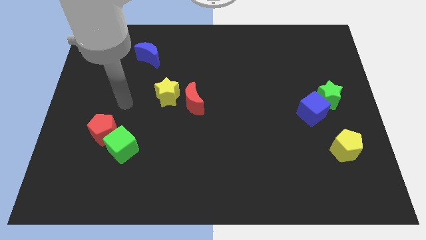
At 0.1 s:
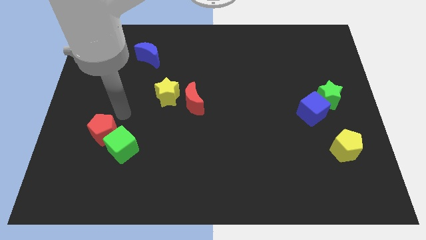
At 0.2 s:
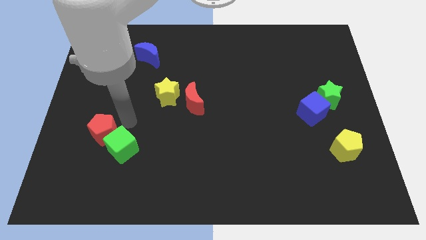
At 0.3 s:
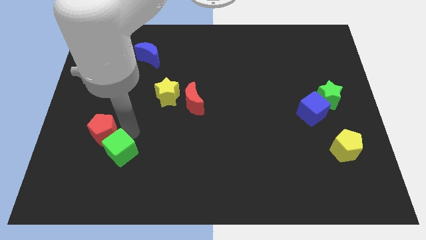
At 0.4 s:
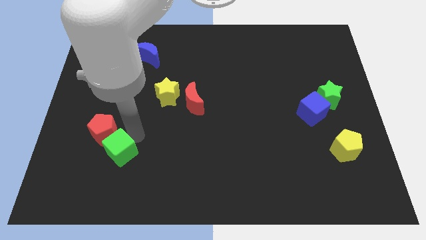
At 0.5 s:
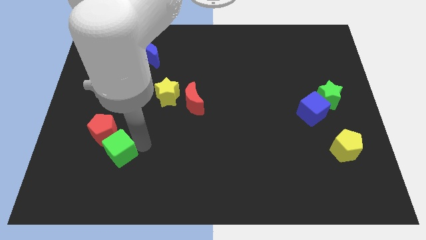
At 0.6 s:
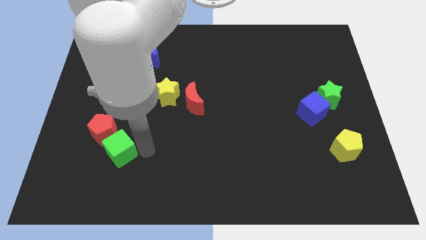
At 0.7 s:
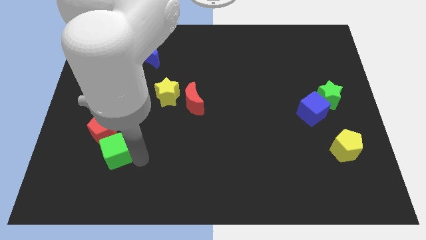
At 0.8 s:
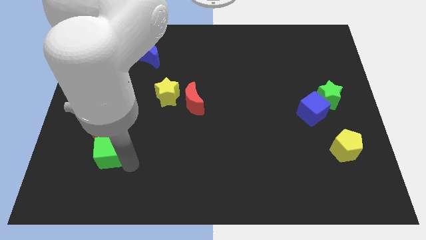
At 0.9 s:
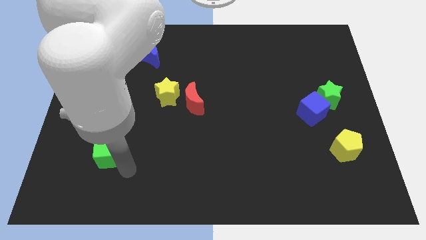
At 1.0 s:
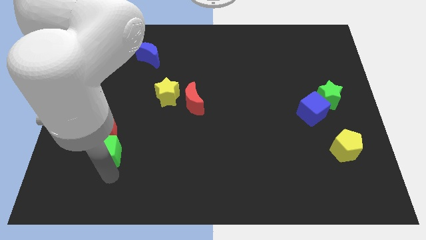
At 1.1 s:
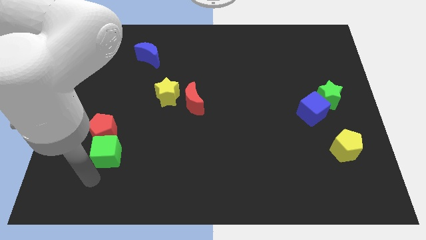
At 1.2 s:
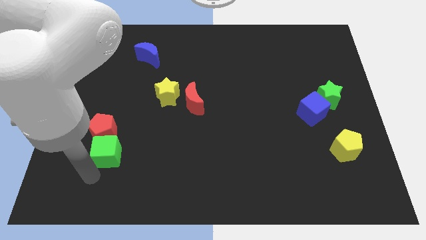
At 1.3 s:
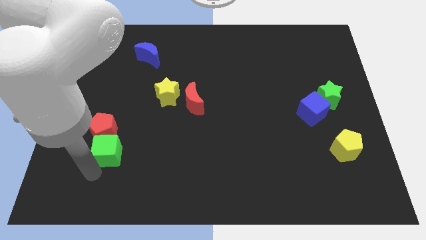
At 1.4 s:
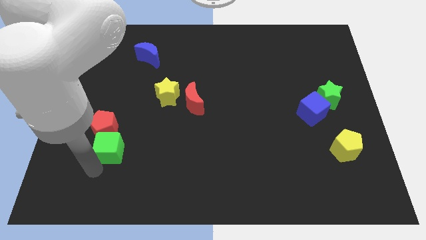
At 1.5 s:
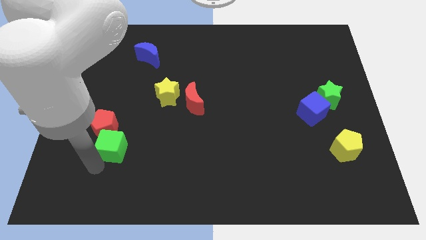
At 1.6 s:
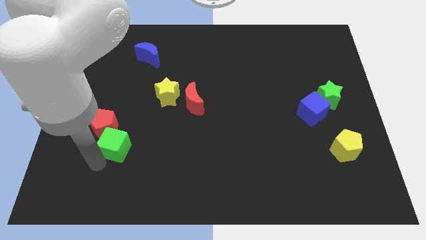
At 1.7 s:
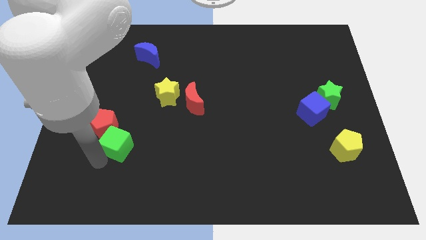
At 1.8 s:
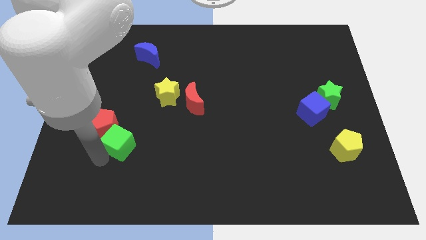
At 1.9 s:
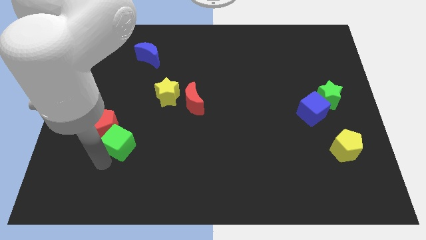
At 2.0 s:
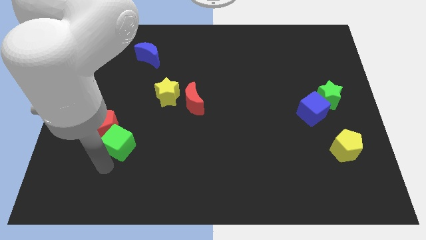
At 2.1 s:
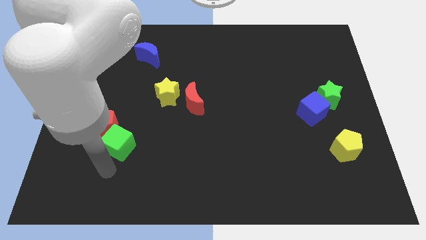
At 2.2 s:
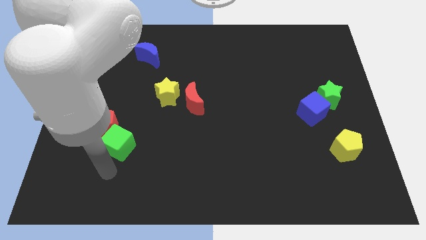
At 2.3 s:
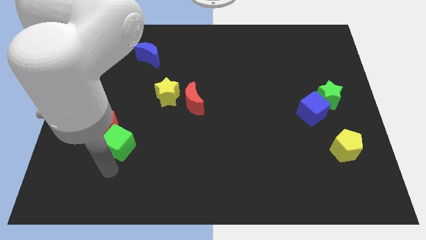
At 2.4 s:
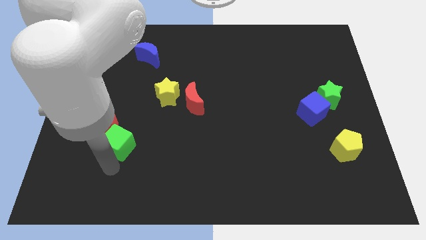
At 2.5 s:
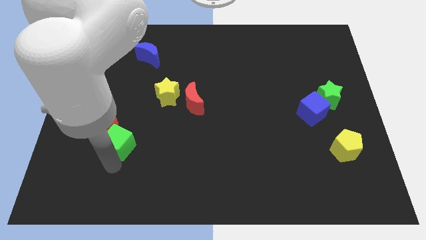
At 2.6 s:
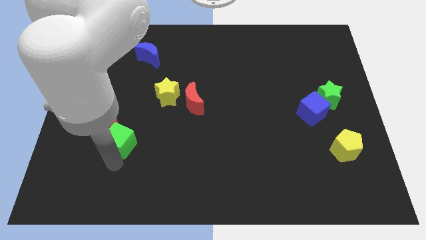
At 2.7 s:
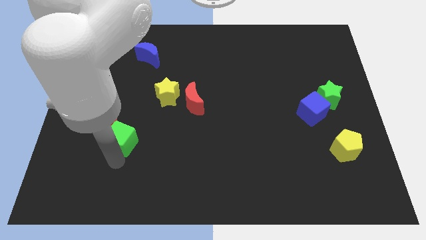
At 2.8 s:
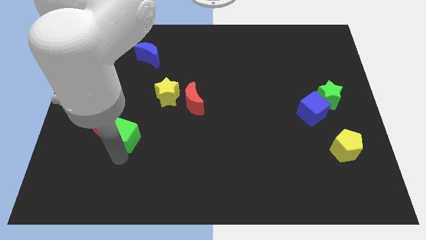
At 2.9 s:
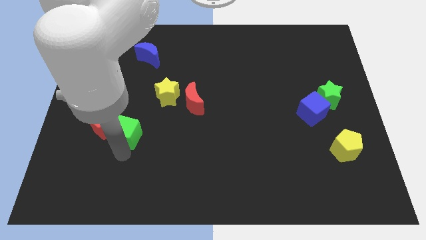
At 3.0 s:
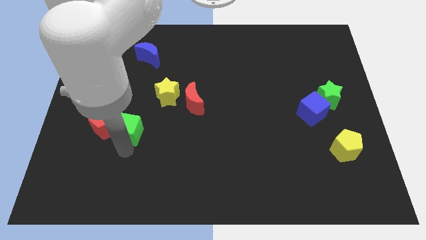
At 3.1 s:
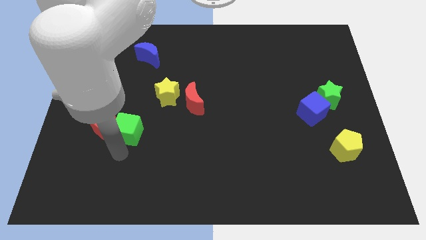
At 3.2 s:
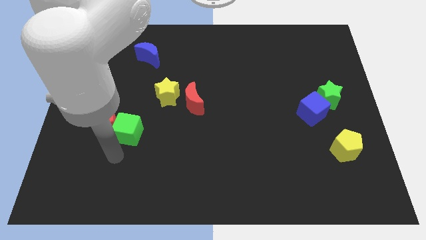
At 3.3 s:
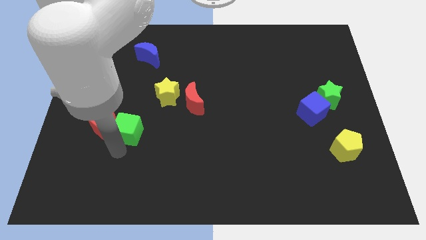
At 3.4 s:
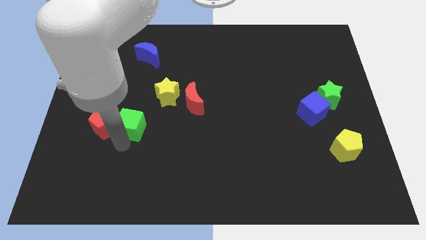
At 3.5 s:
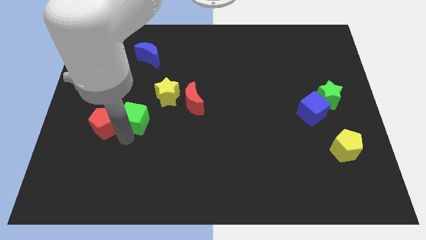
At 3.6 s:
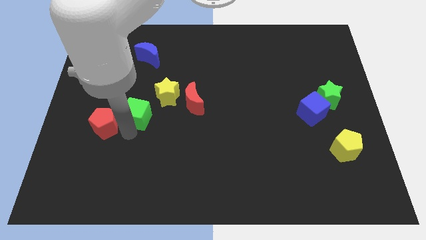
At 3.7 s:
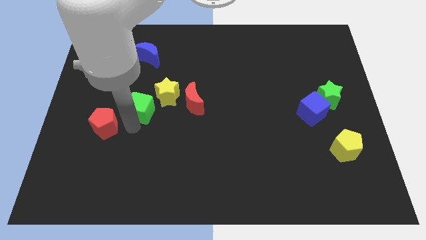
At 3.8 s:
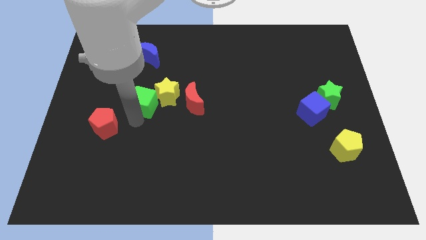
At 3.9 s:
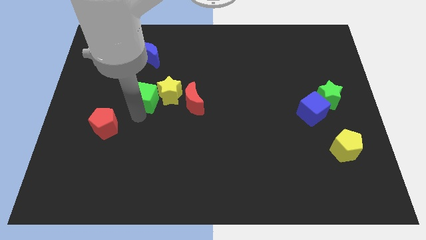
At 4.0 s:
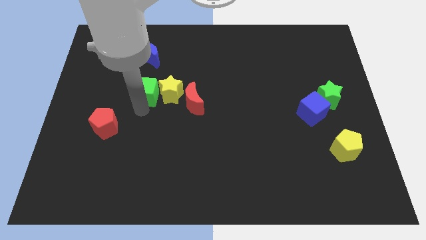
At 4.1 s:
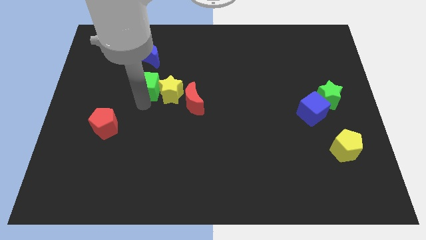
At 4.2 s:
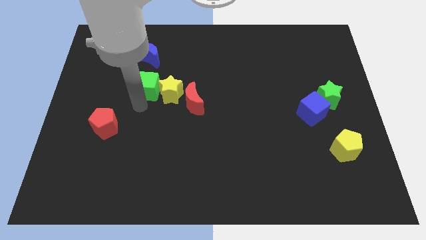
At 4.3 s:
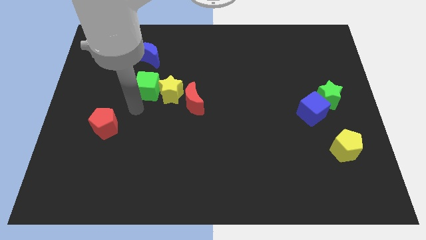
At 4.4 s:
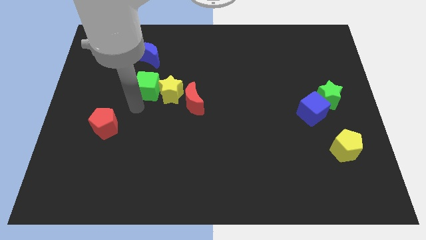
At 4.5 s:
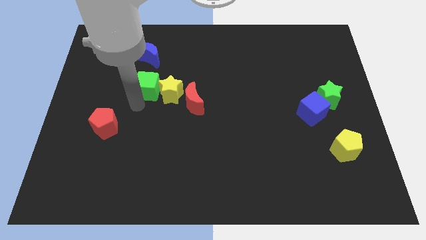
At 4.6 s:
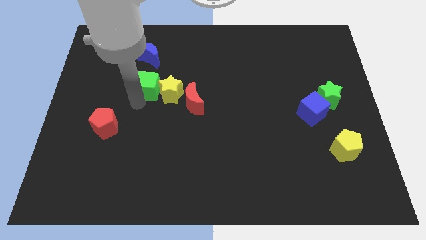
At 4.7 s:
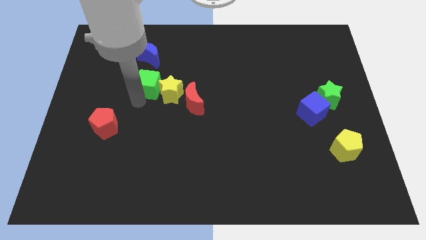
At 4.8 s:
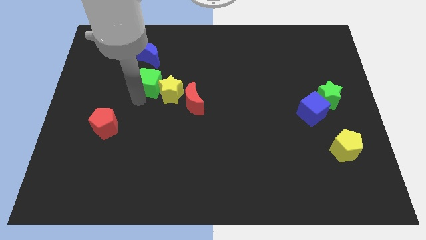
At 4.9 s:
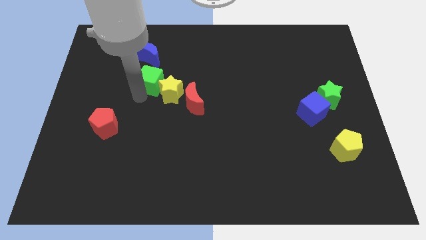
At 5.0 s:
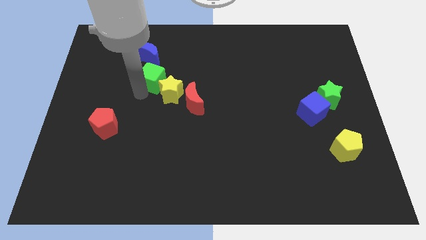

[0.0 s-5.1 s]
put the green cube to the top of the yellow star

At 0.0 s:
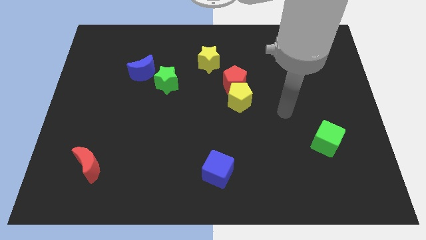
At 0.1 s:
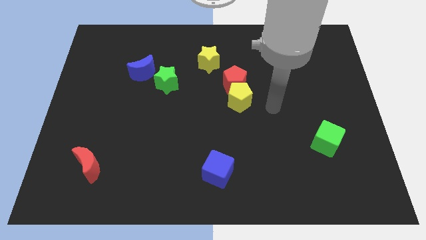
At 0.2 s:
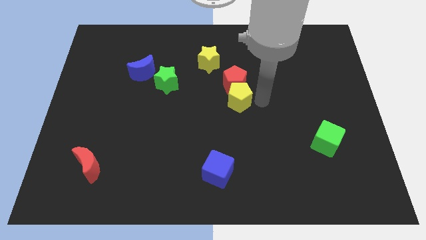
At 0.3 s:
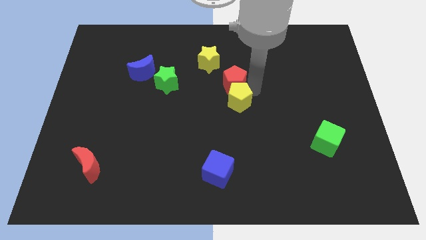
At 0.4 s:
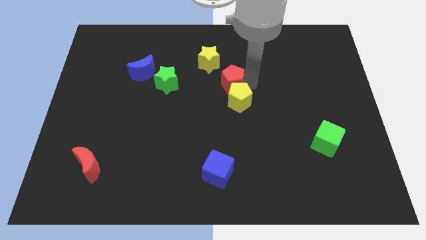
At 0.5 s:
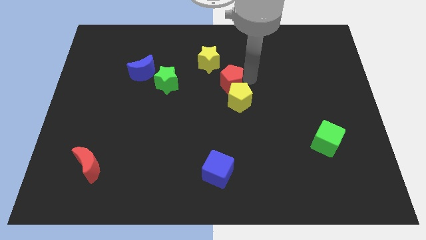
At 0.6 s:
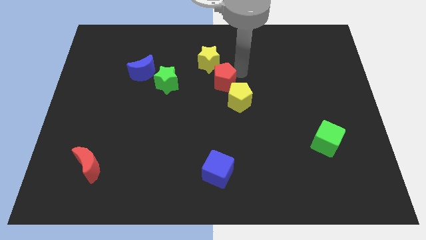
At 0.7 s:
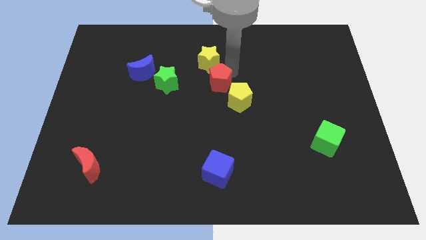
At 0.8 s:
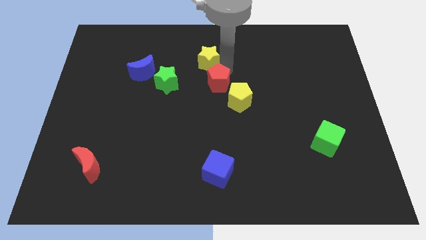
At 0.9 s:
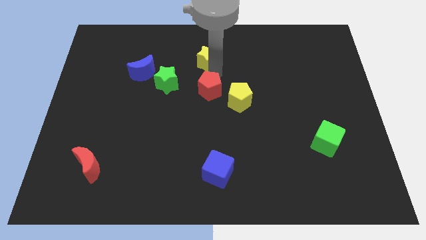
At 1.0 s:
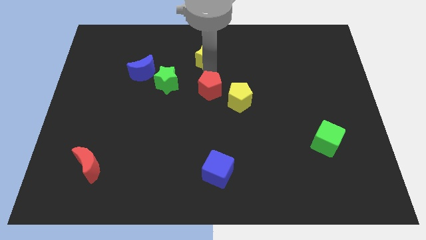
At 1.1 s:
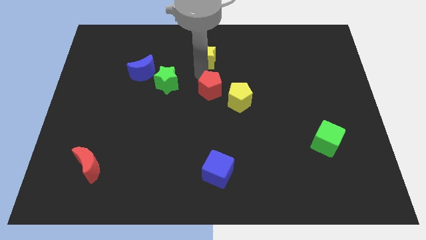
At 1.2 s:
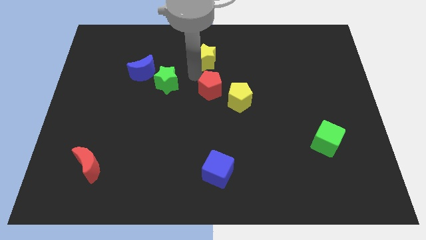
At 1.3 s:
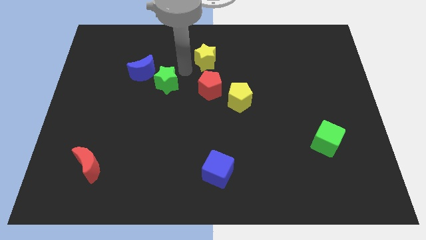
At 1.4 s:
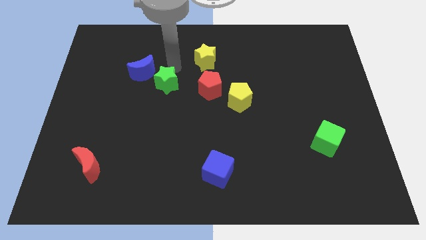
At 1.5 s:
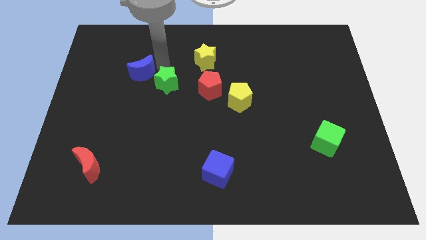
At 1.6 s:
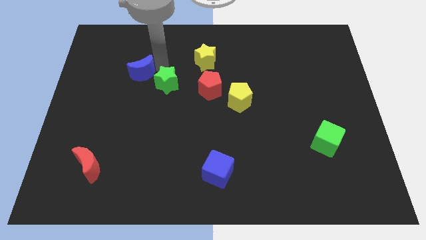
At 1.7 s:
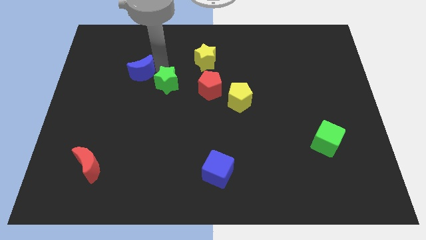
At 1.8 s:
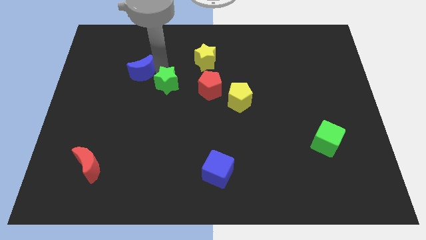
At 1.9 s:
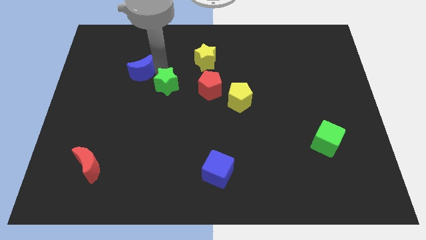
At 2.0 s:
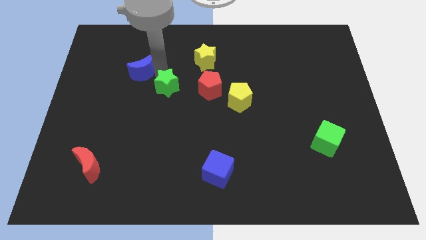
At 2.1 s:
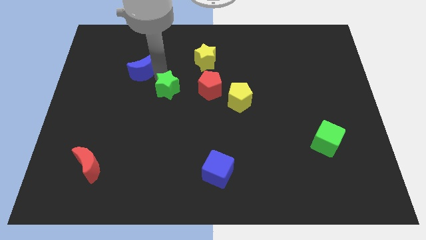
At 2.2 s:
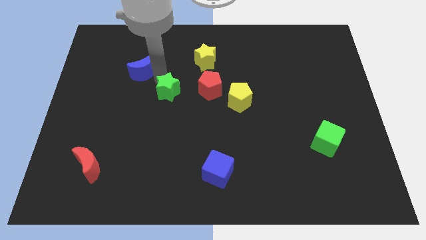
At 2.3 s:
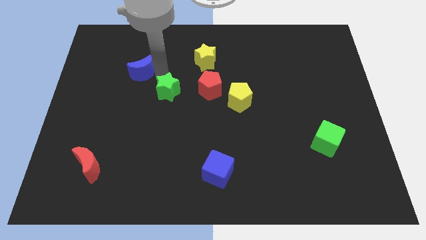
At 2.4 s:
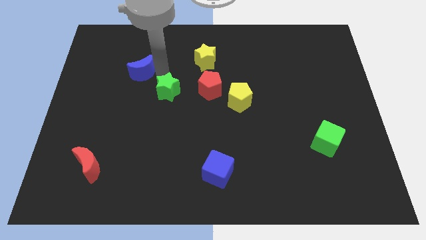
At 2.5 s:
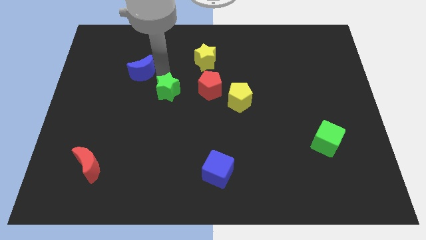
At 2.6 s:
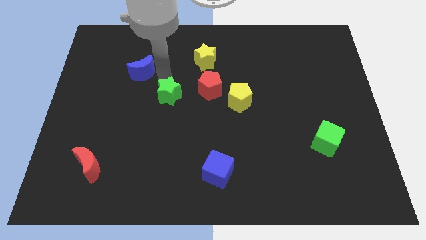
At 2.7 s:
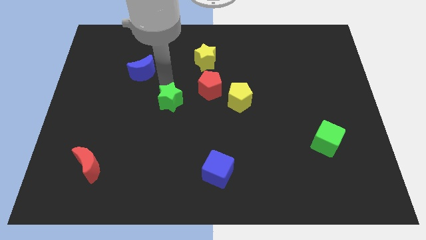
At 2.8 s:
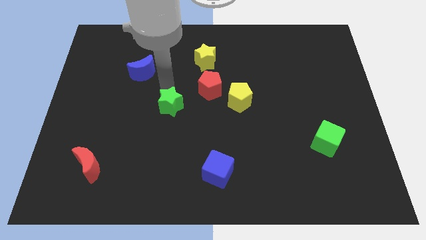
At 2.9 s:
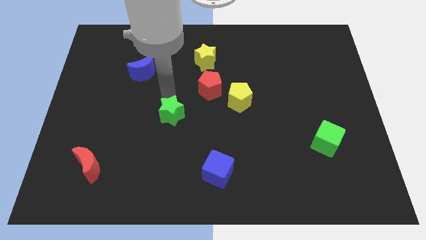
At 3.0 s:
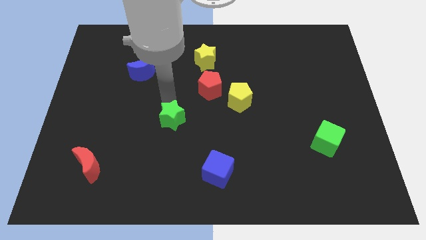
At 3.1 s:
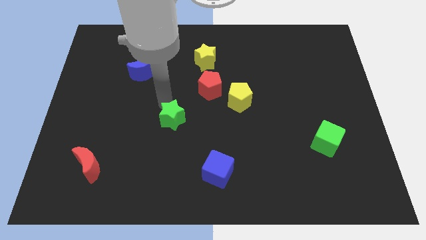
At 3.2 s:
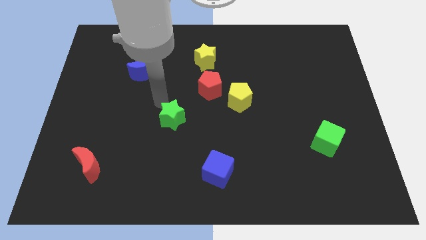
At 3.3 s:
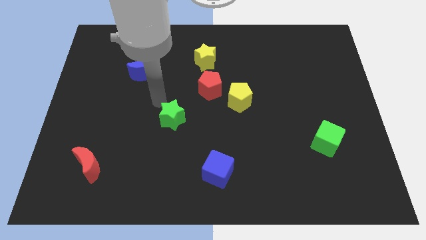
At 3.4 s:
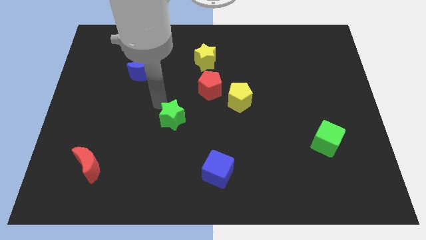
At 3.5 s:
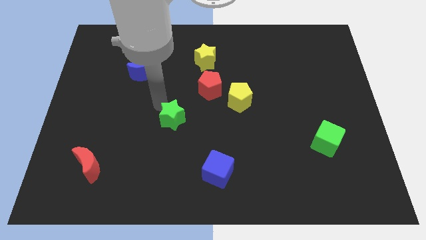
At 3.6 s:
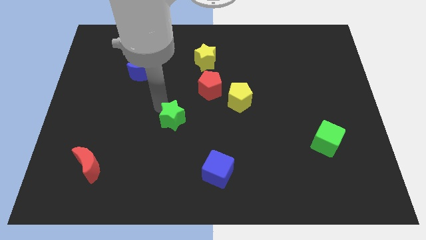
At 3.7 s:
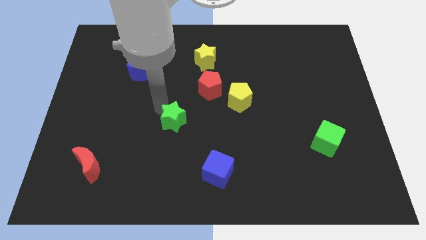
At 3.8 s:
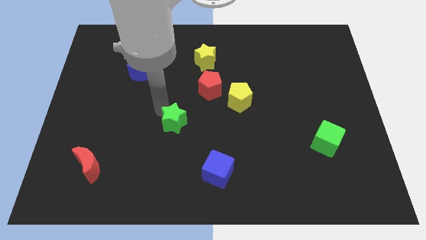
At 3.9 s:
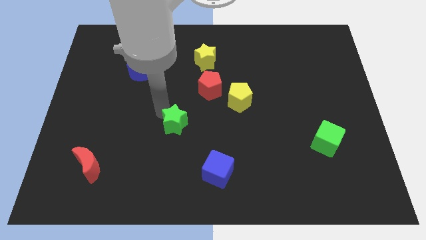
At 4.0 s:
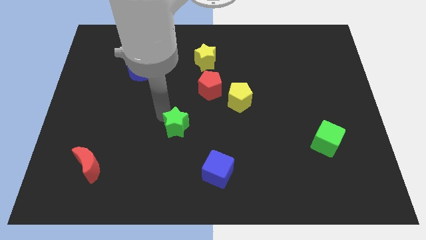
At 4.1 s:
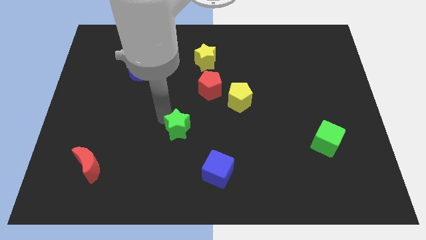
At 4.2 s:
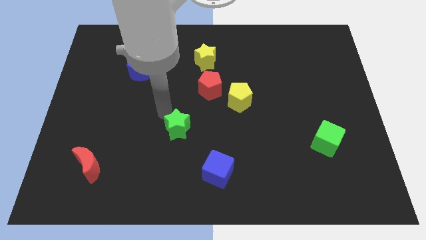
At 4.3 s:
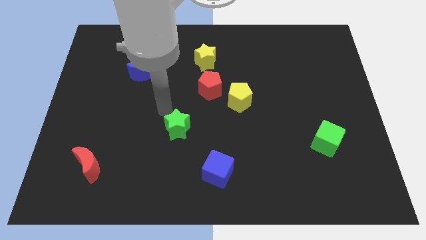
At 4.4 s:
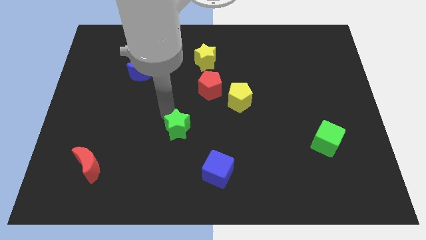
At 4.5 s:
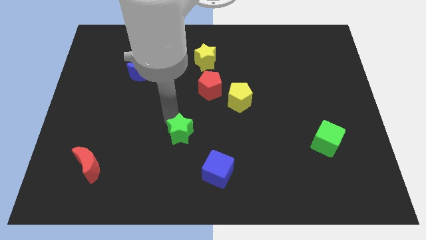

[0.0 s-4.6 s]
slide the green star diagonally up and to the left of the blue cube
